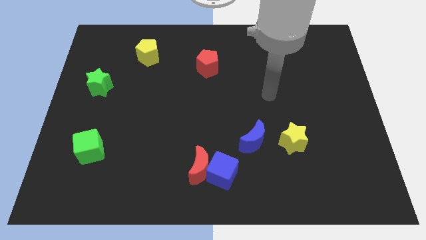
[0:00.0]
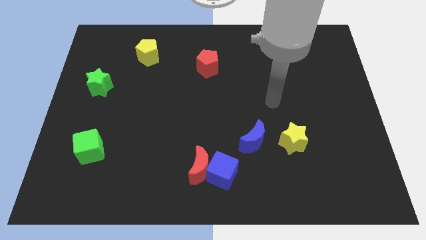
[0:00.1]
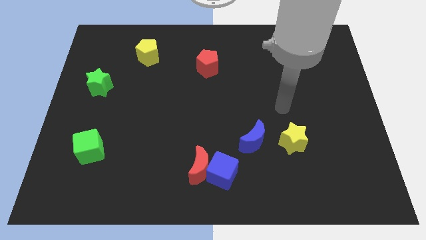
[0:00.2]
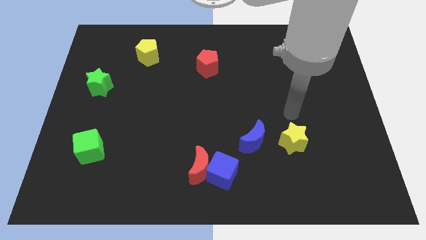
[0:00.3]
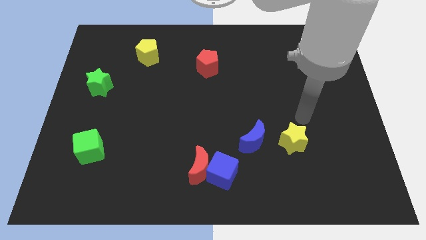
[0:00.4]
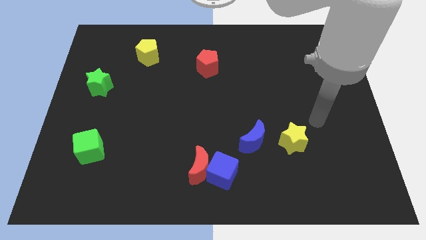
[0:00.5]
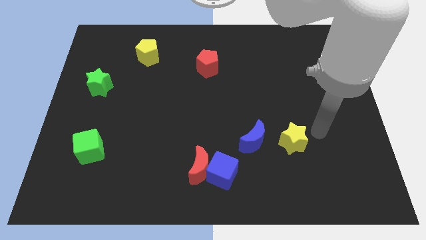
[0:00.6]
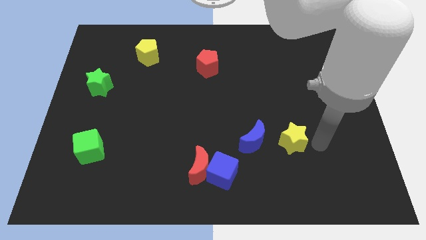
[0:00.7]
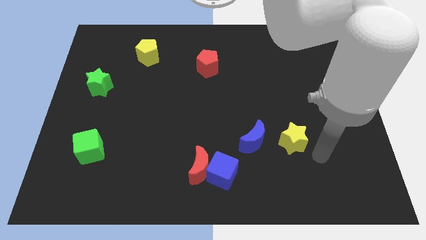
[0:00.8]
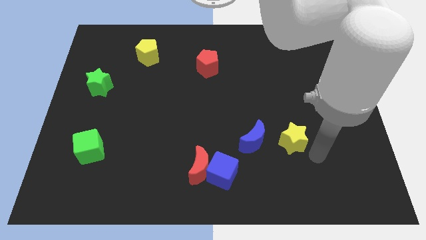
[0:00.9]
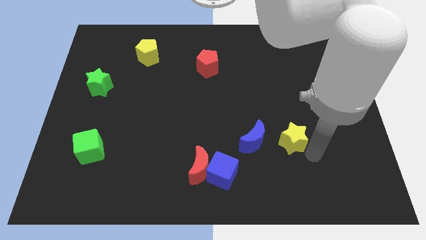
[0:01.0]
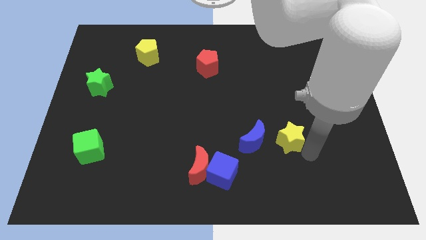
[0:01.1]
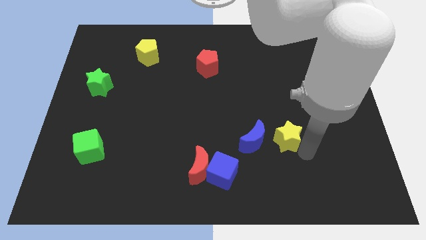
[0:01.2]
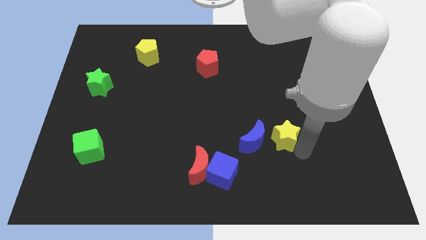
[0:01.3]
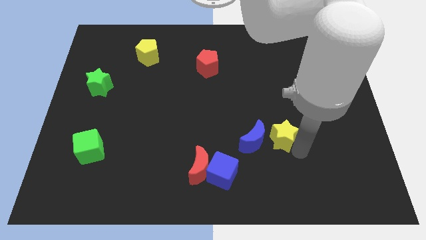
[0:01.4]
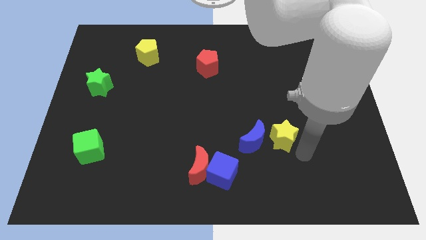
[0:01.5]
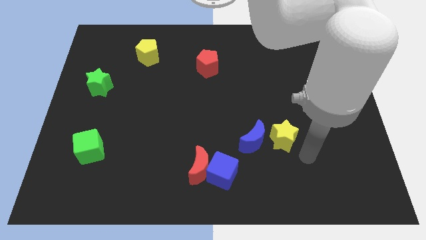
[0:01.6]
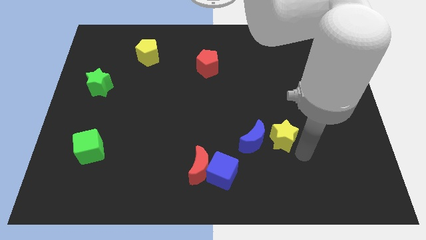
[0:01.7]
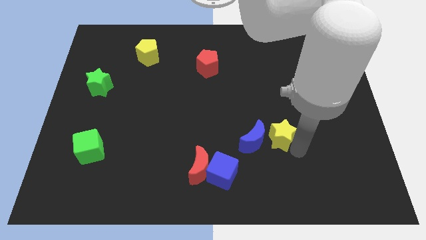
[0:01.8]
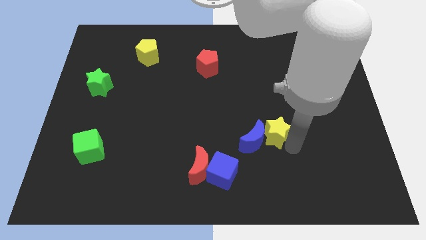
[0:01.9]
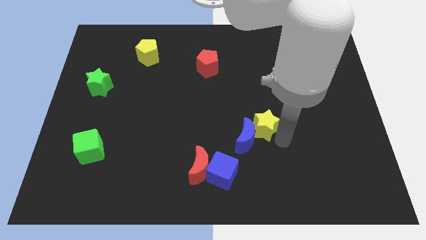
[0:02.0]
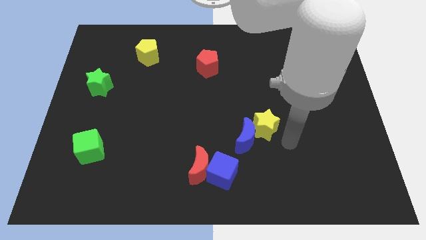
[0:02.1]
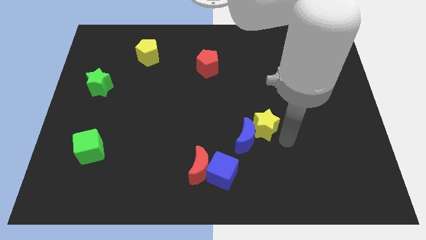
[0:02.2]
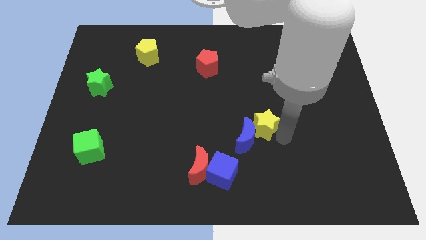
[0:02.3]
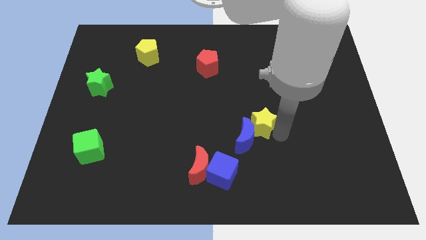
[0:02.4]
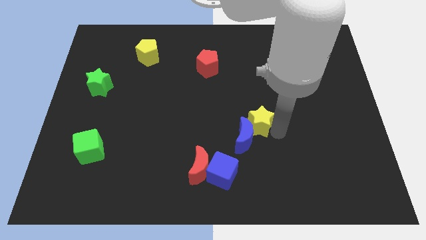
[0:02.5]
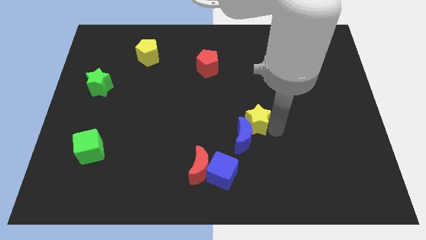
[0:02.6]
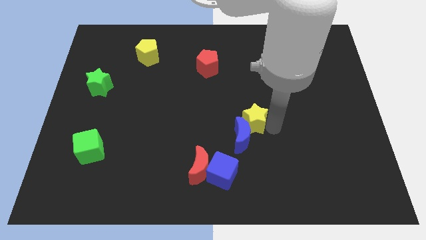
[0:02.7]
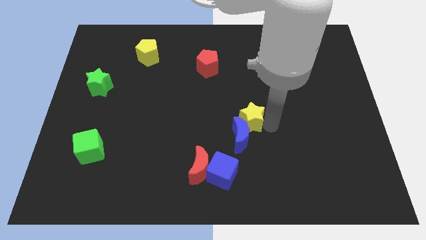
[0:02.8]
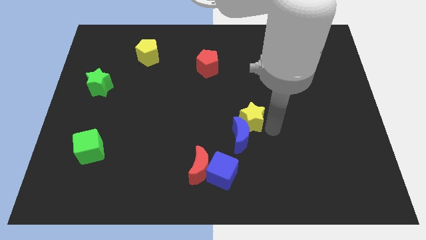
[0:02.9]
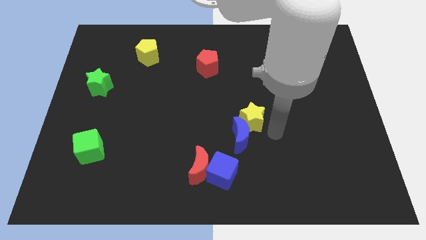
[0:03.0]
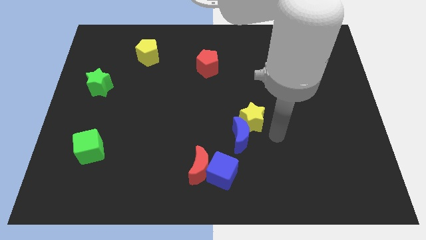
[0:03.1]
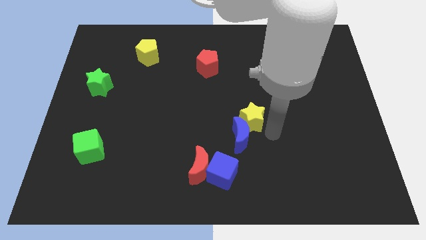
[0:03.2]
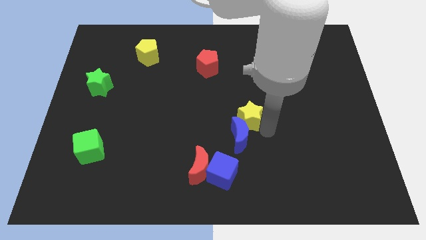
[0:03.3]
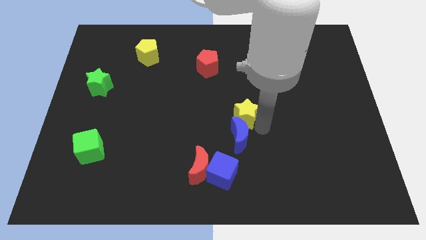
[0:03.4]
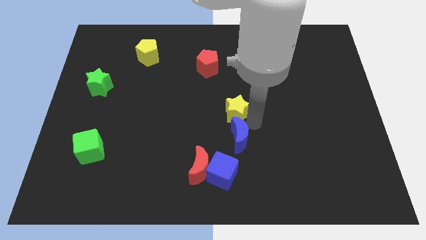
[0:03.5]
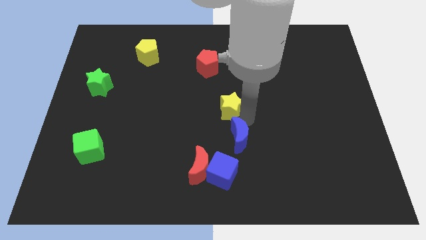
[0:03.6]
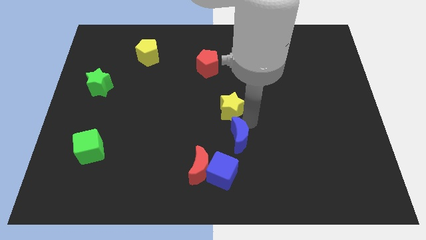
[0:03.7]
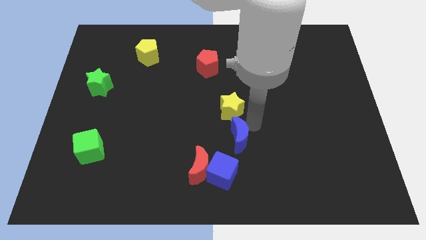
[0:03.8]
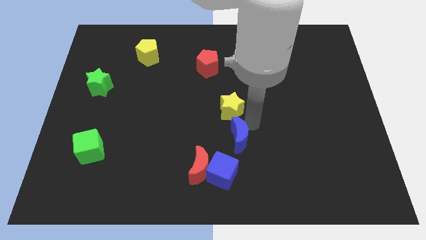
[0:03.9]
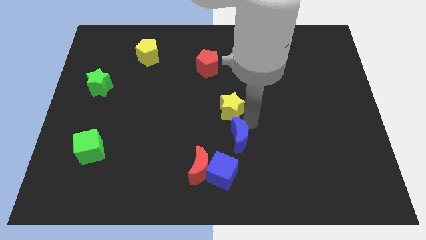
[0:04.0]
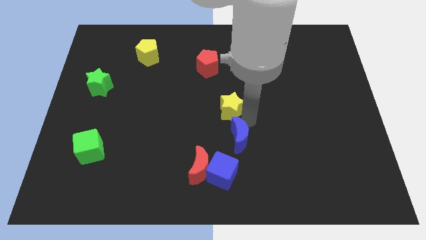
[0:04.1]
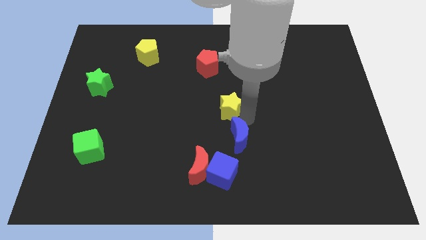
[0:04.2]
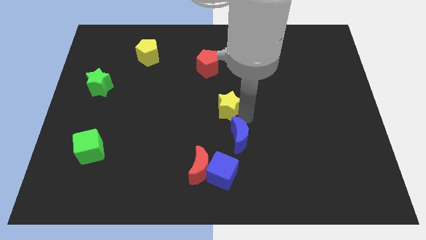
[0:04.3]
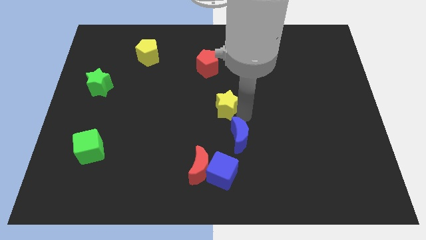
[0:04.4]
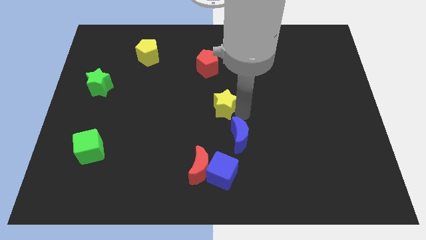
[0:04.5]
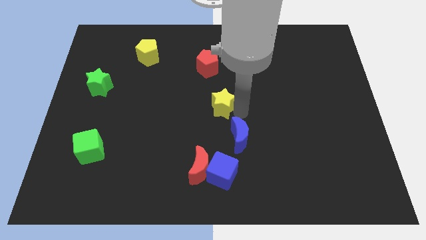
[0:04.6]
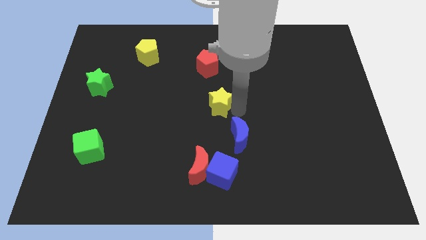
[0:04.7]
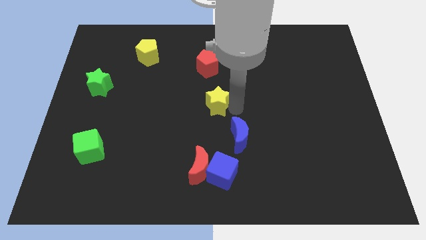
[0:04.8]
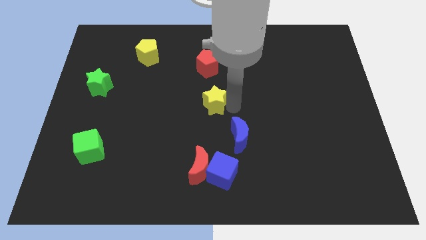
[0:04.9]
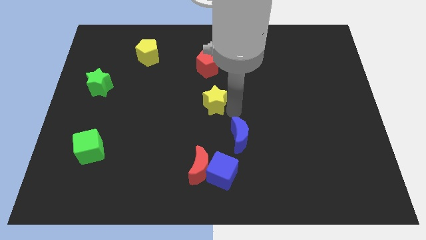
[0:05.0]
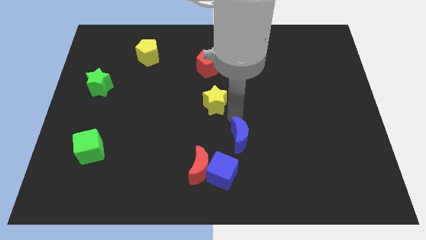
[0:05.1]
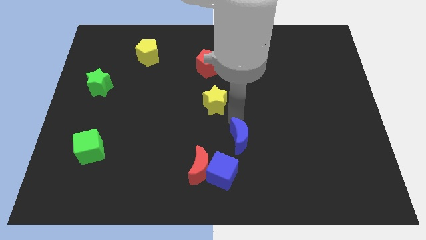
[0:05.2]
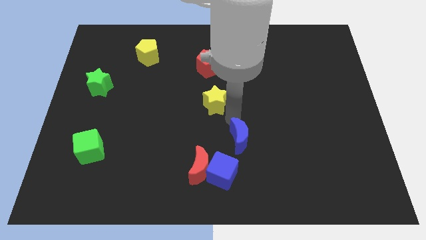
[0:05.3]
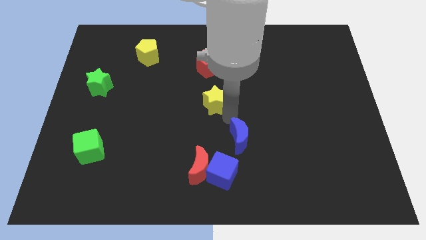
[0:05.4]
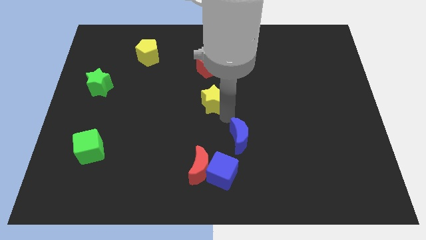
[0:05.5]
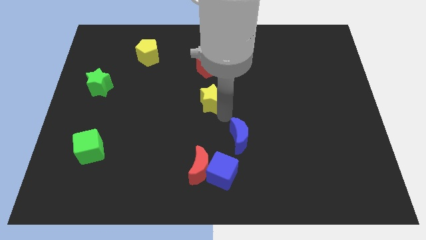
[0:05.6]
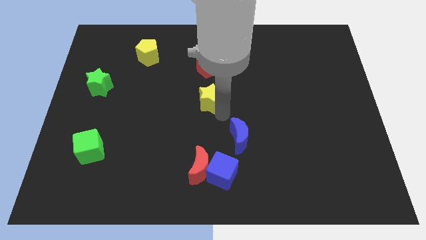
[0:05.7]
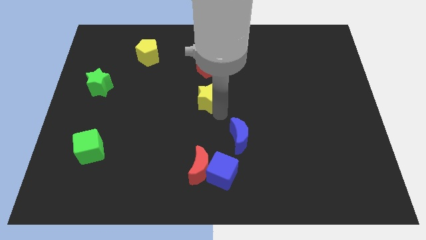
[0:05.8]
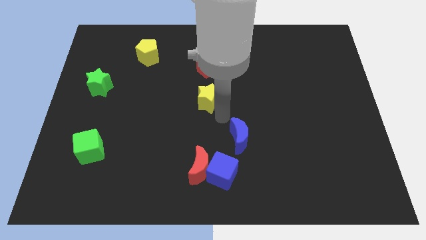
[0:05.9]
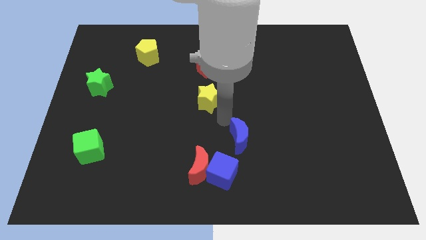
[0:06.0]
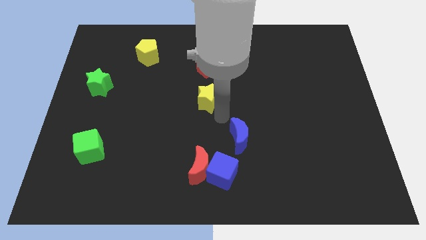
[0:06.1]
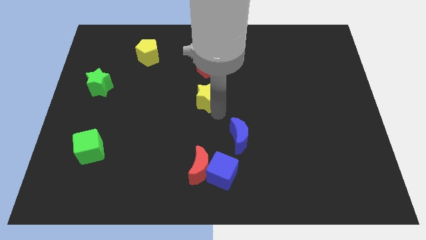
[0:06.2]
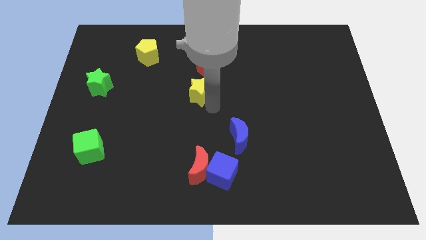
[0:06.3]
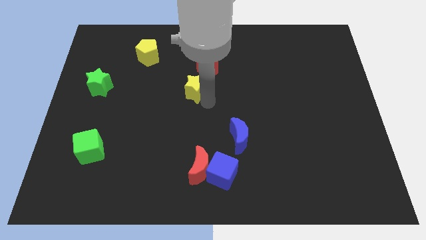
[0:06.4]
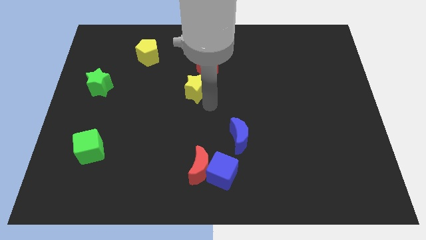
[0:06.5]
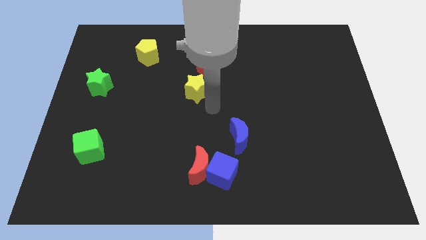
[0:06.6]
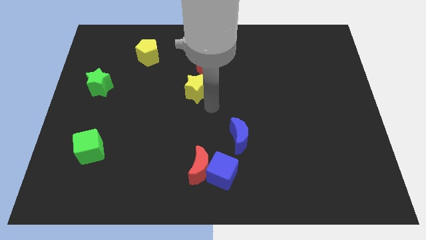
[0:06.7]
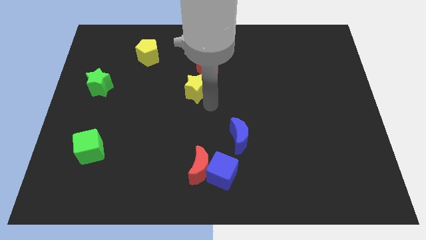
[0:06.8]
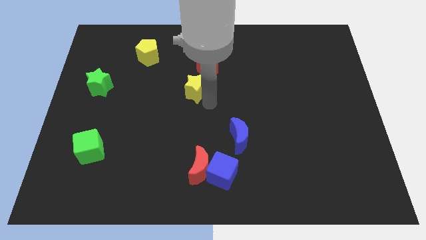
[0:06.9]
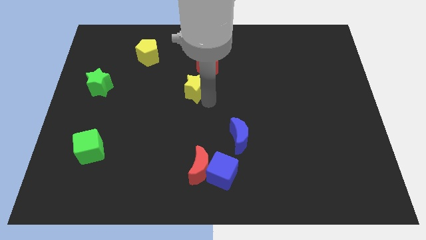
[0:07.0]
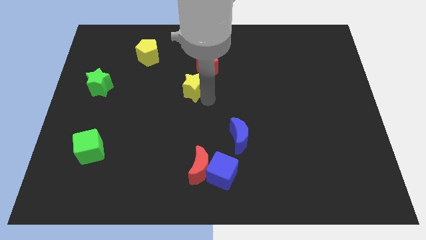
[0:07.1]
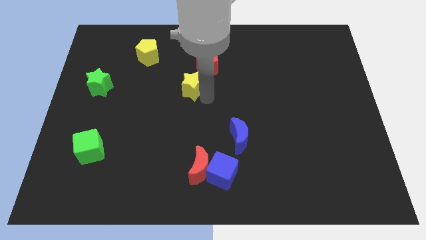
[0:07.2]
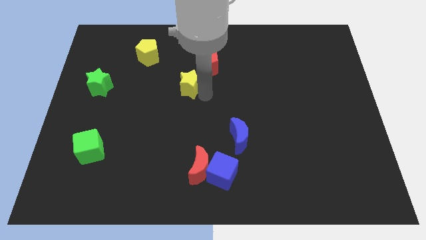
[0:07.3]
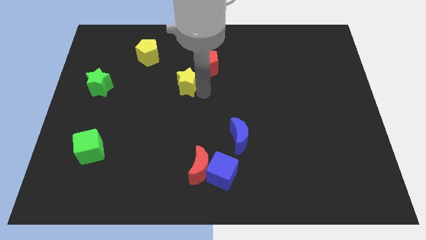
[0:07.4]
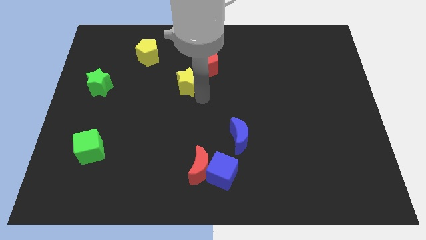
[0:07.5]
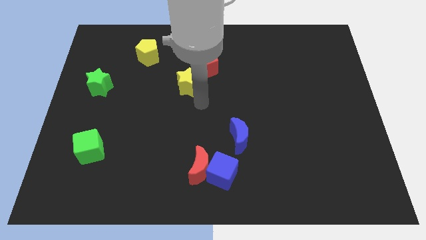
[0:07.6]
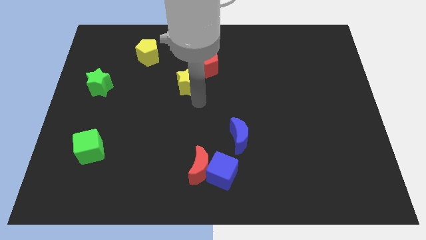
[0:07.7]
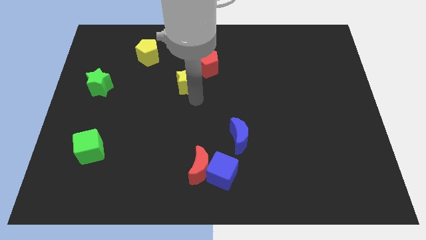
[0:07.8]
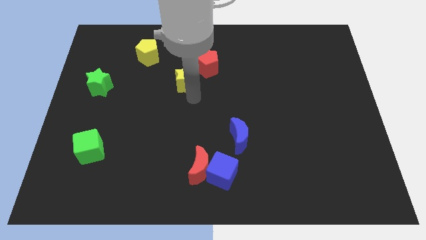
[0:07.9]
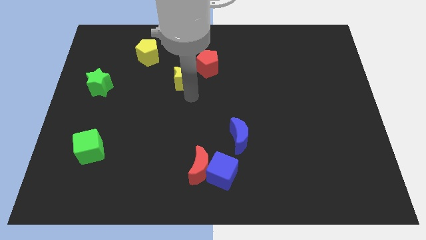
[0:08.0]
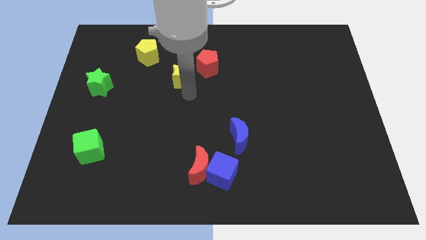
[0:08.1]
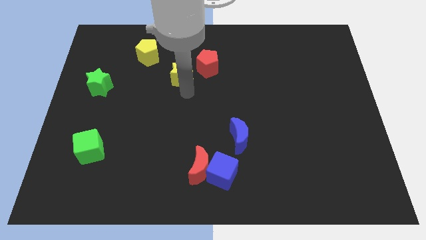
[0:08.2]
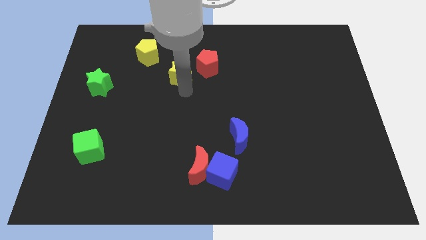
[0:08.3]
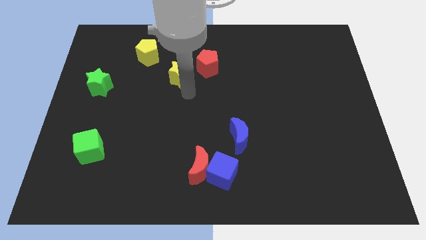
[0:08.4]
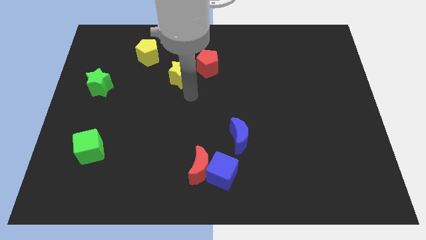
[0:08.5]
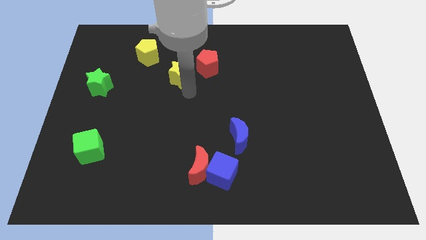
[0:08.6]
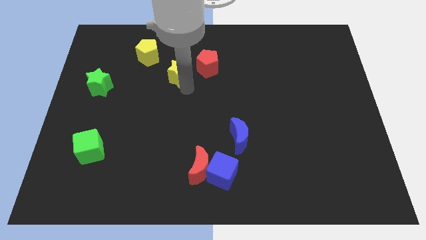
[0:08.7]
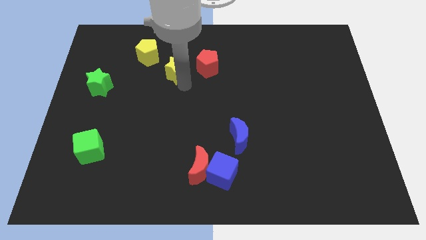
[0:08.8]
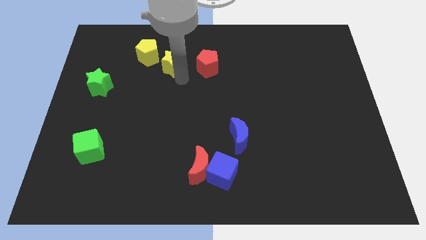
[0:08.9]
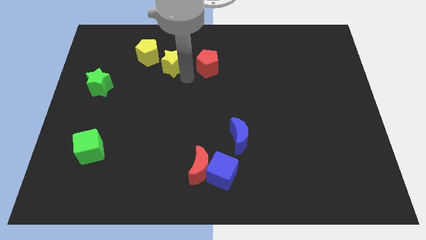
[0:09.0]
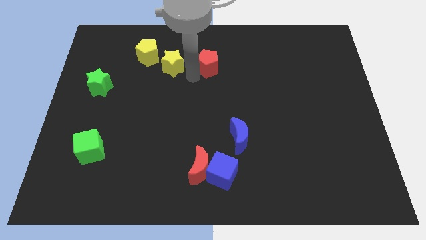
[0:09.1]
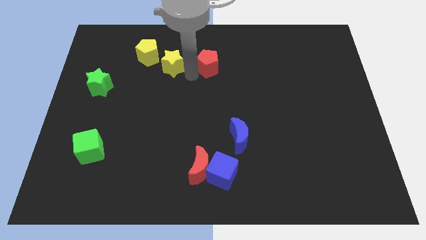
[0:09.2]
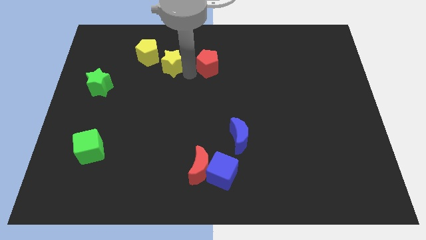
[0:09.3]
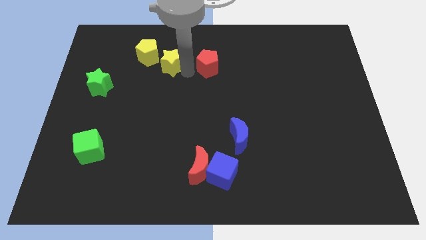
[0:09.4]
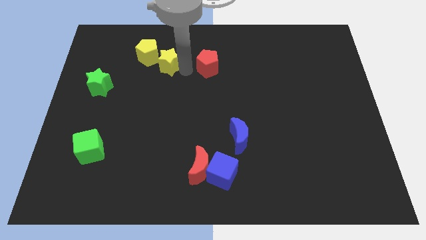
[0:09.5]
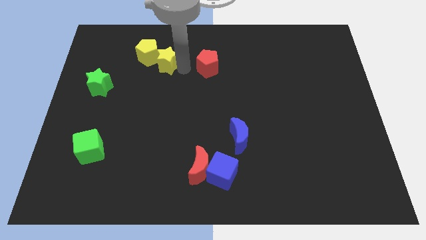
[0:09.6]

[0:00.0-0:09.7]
push the yellow star towards the yellow pentagon
